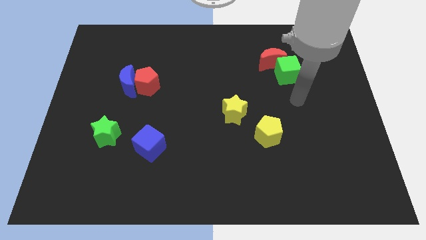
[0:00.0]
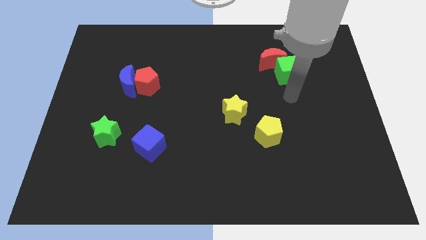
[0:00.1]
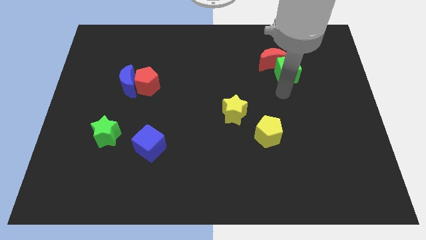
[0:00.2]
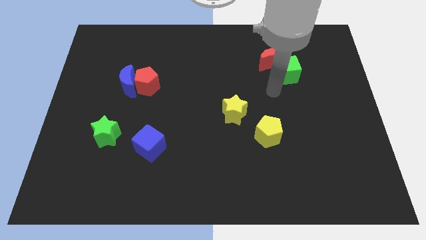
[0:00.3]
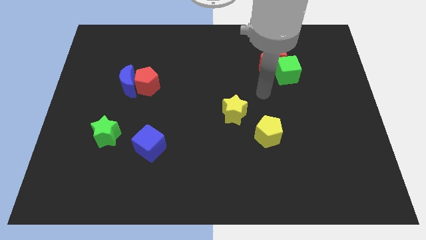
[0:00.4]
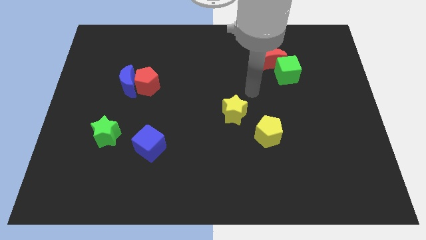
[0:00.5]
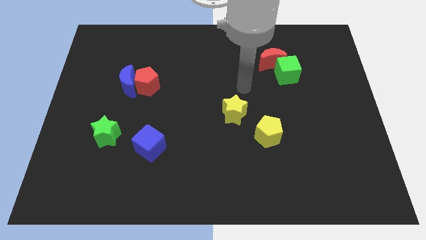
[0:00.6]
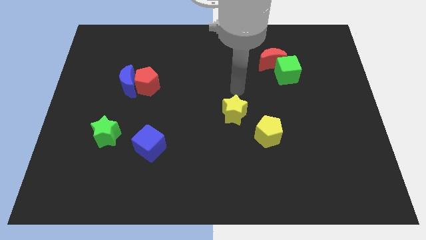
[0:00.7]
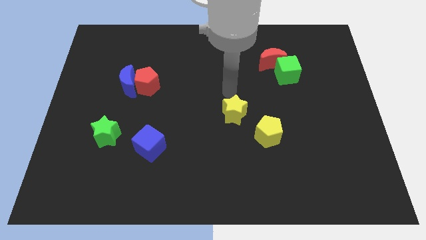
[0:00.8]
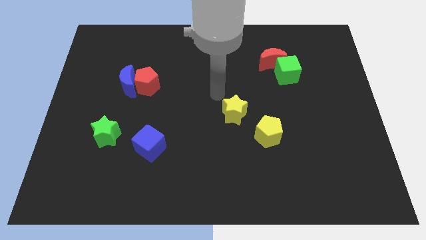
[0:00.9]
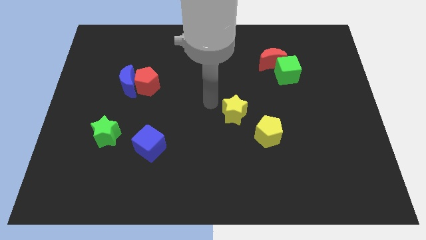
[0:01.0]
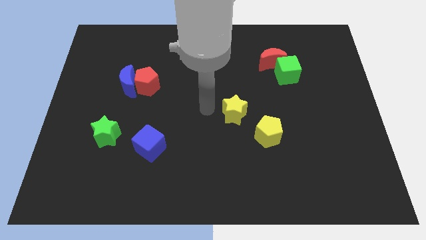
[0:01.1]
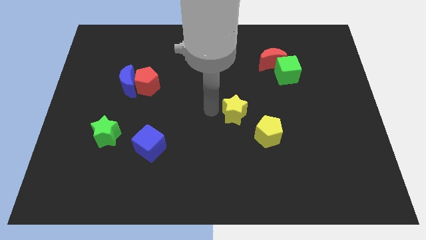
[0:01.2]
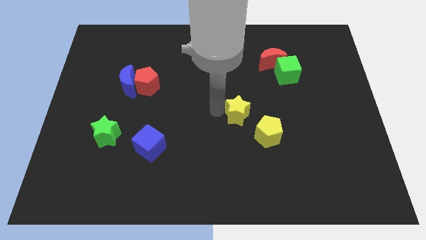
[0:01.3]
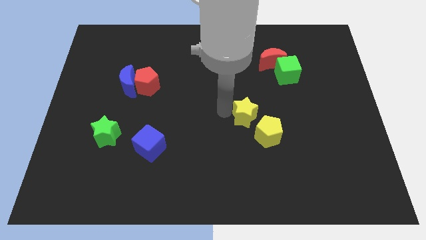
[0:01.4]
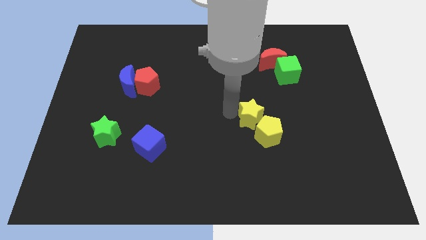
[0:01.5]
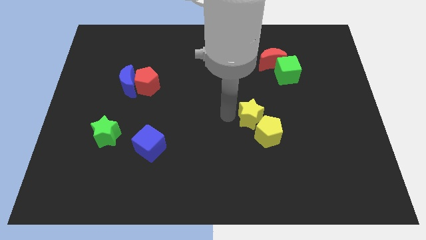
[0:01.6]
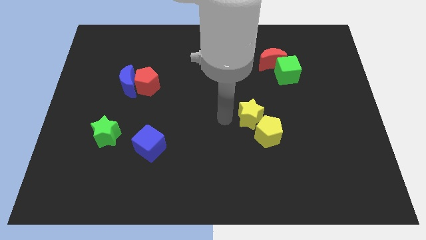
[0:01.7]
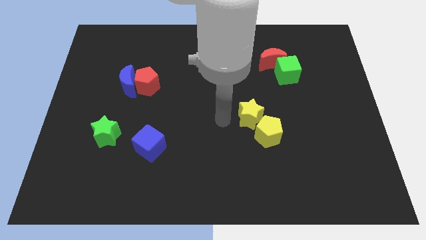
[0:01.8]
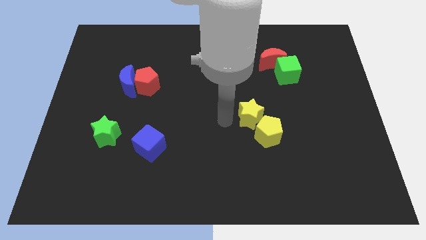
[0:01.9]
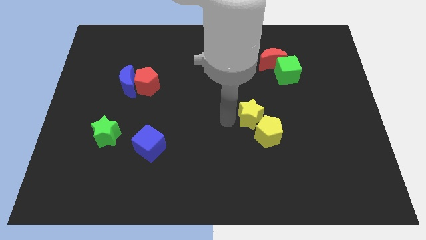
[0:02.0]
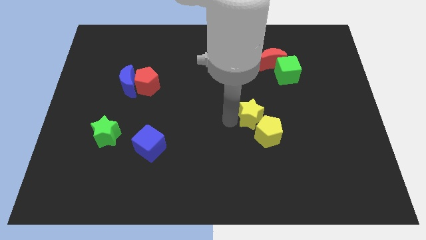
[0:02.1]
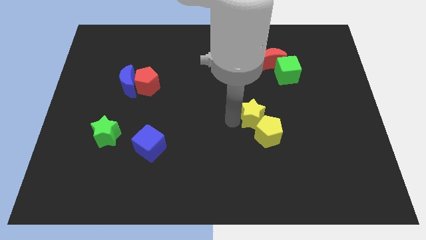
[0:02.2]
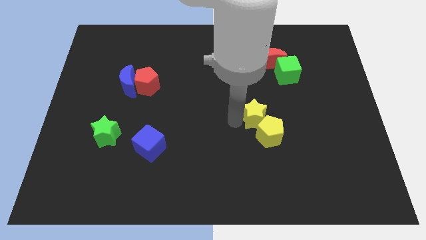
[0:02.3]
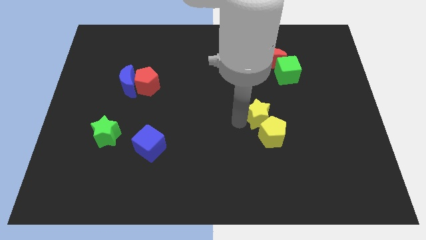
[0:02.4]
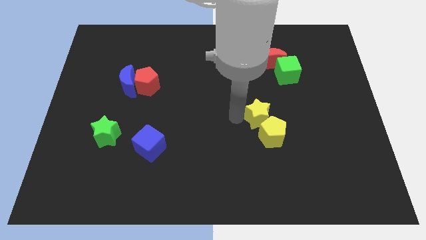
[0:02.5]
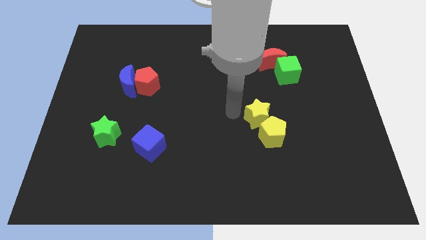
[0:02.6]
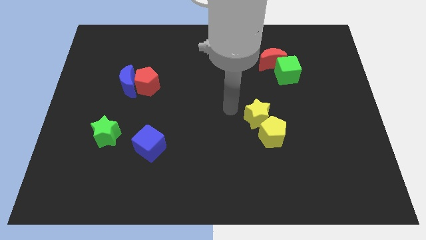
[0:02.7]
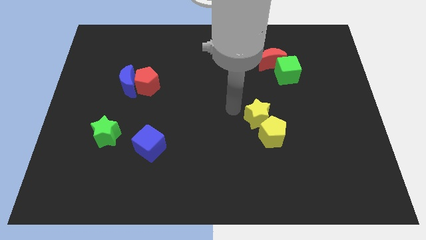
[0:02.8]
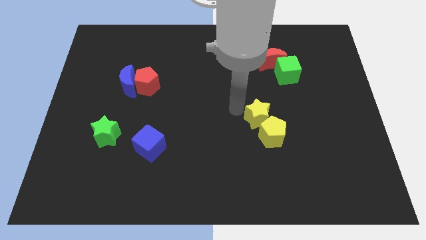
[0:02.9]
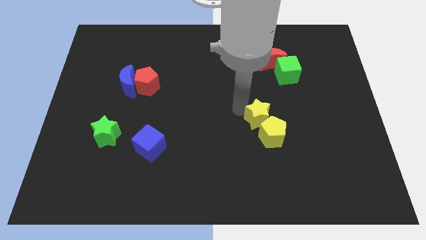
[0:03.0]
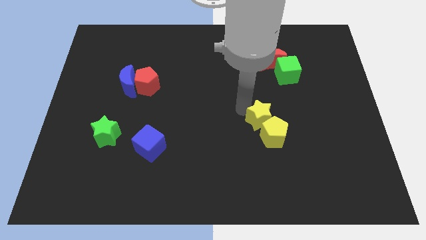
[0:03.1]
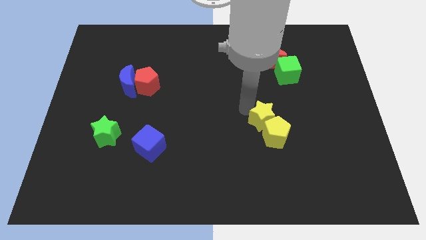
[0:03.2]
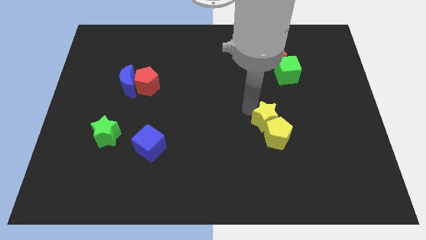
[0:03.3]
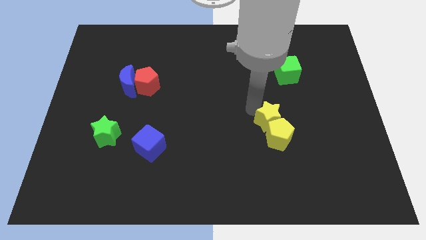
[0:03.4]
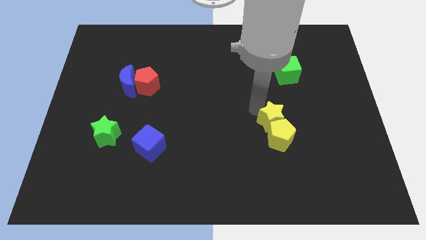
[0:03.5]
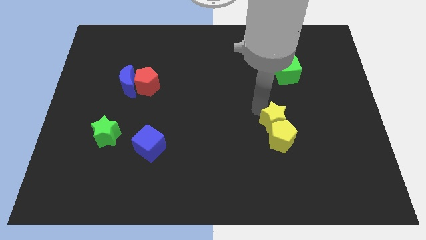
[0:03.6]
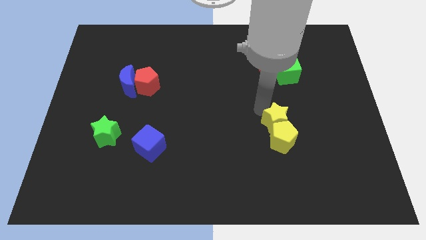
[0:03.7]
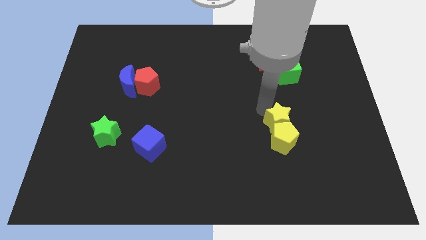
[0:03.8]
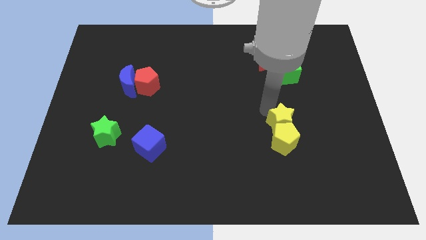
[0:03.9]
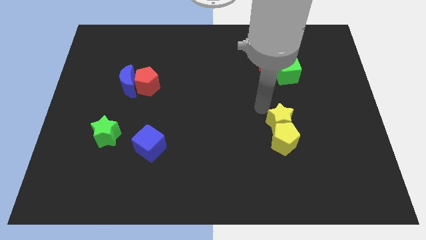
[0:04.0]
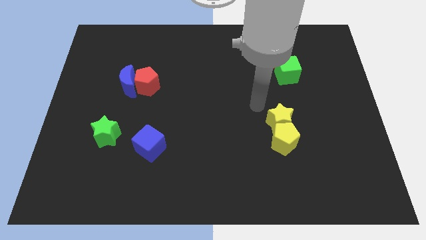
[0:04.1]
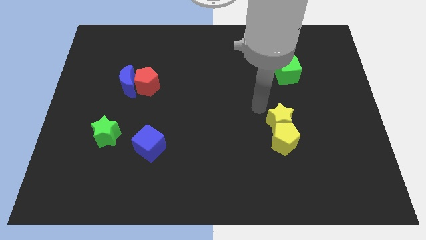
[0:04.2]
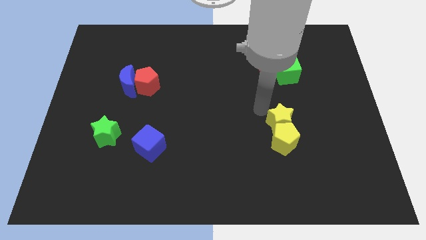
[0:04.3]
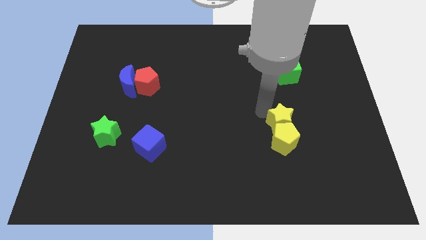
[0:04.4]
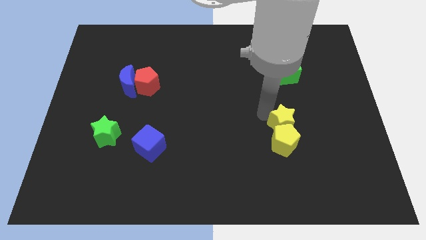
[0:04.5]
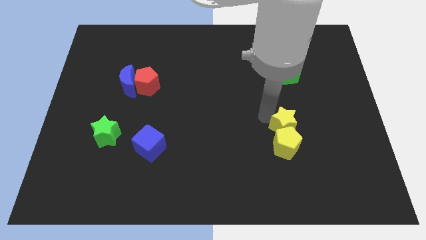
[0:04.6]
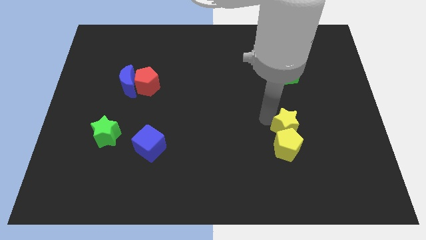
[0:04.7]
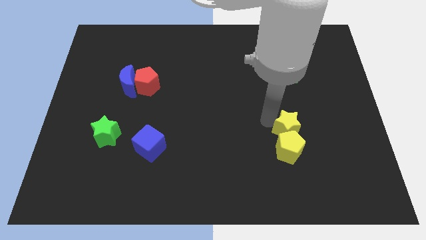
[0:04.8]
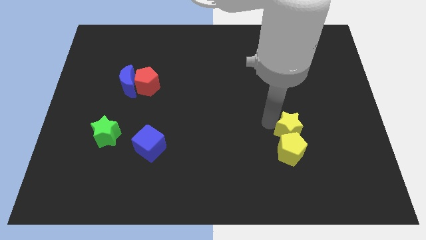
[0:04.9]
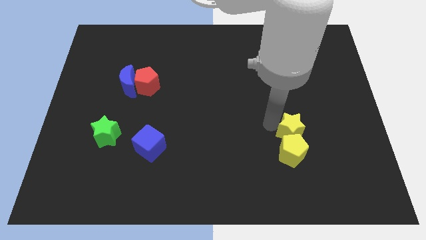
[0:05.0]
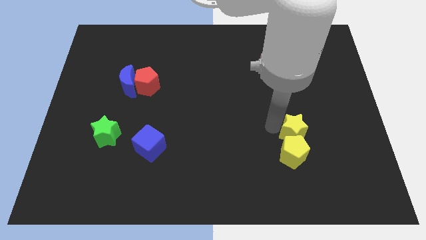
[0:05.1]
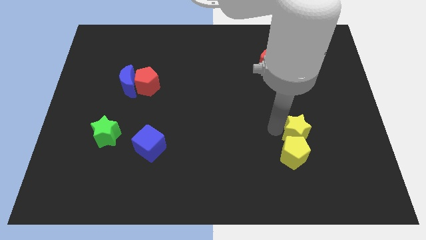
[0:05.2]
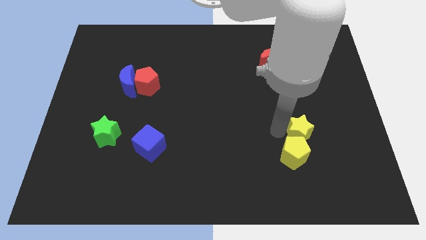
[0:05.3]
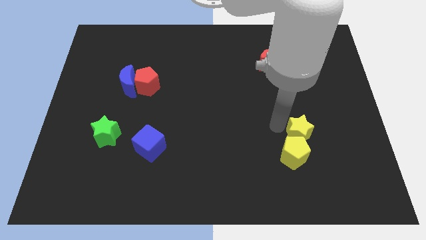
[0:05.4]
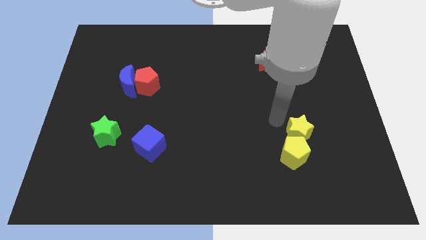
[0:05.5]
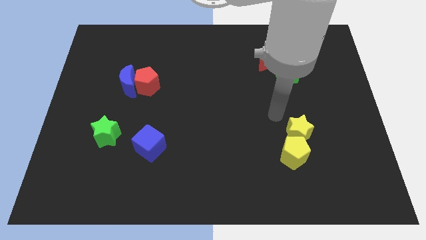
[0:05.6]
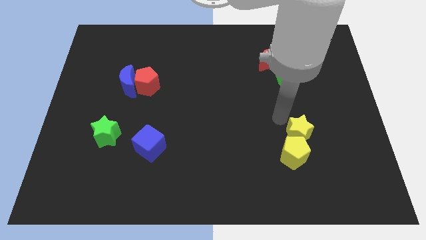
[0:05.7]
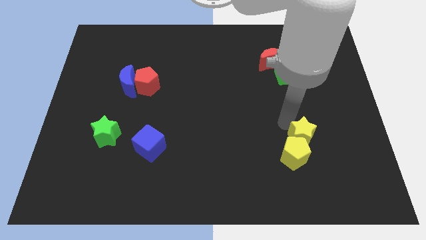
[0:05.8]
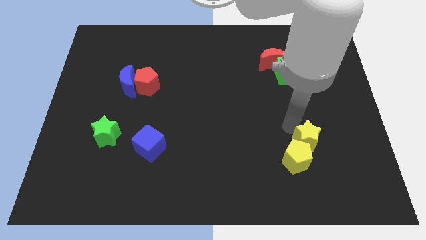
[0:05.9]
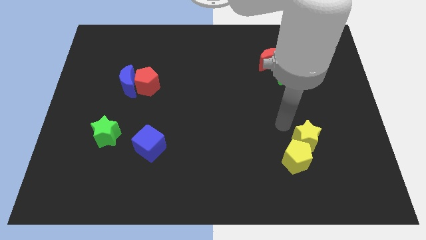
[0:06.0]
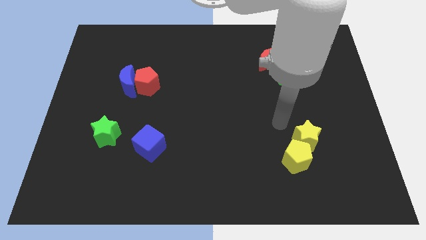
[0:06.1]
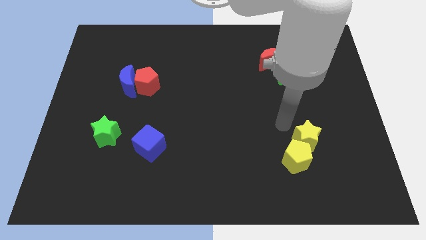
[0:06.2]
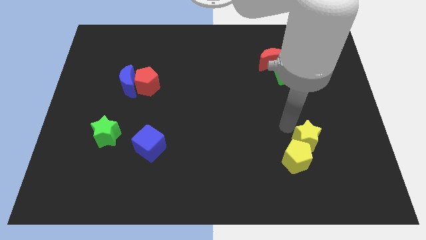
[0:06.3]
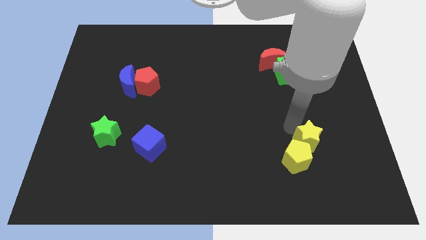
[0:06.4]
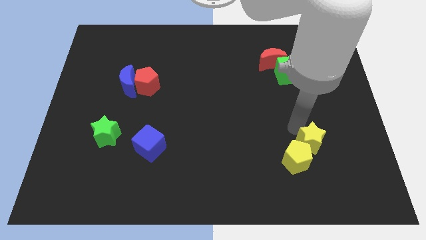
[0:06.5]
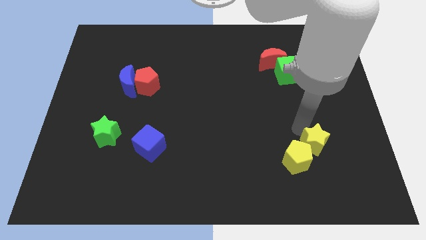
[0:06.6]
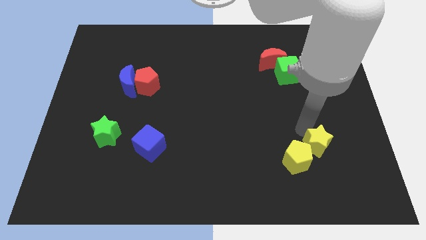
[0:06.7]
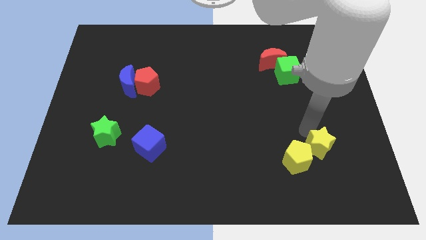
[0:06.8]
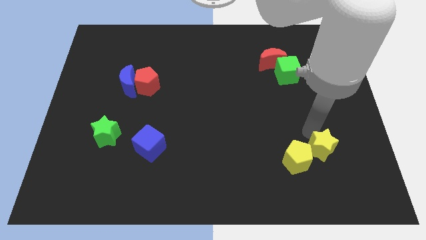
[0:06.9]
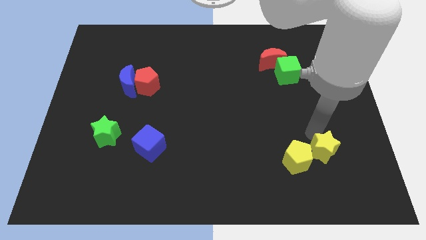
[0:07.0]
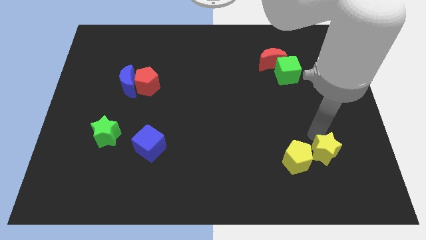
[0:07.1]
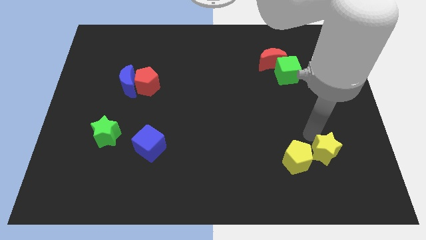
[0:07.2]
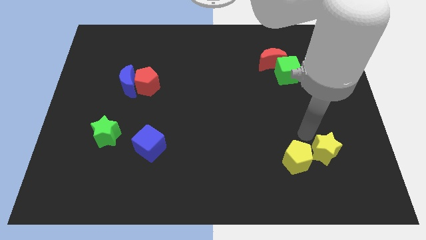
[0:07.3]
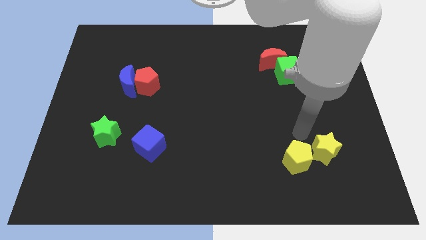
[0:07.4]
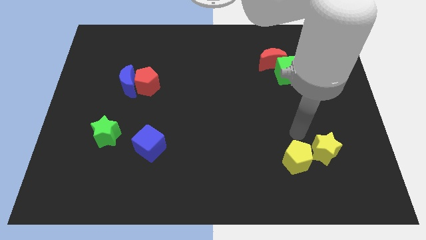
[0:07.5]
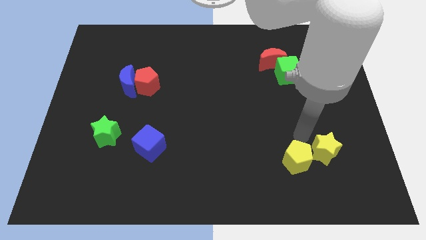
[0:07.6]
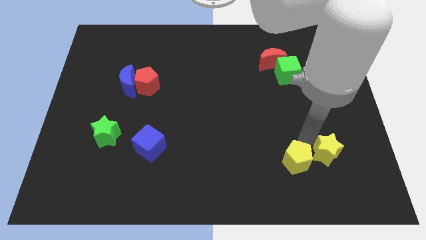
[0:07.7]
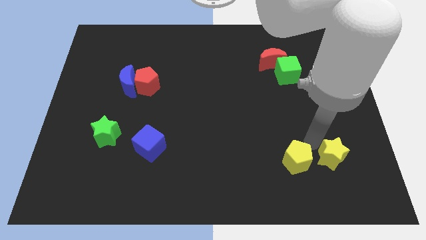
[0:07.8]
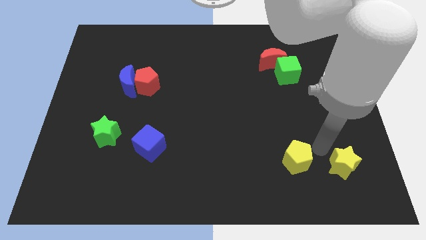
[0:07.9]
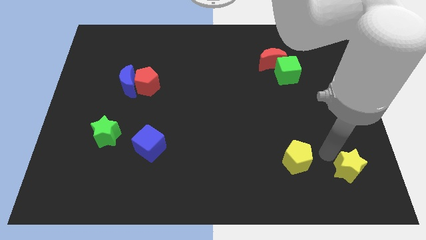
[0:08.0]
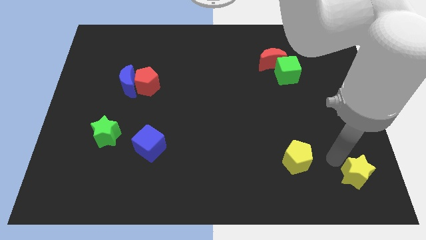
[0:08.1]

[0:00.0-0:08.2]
put the yellow star to the bottom right corner
